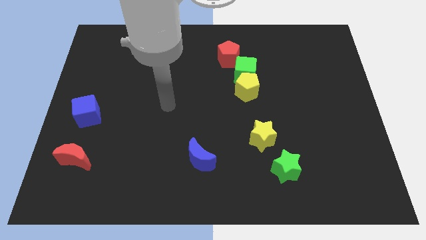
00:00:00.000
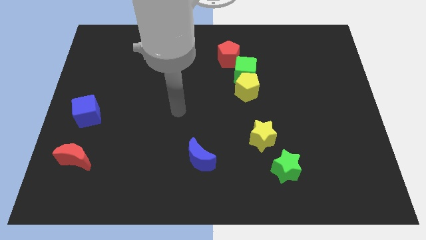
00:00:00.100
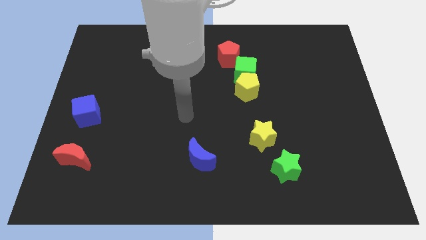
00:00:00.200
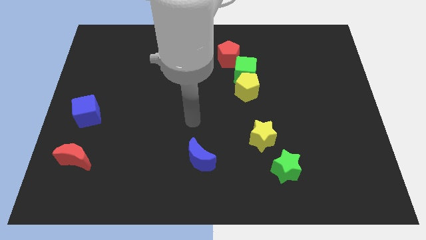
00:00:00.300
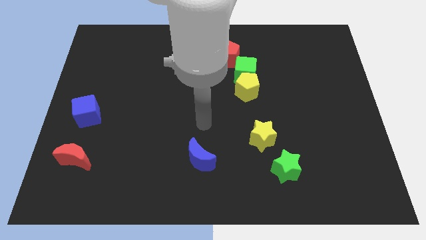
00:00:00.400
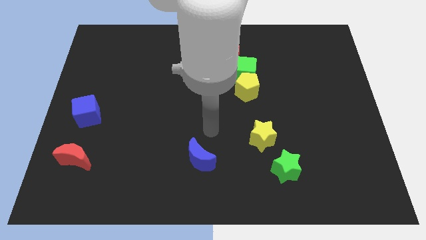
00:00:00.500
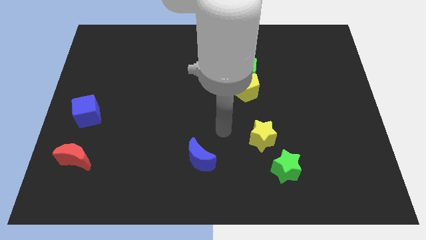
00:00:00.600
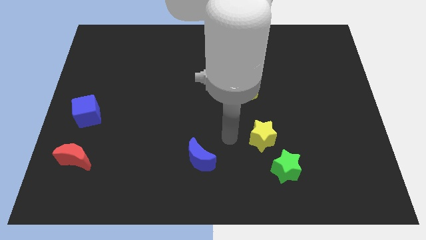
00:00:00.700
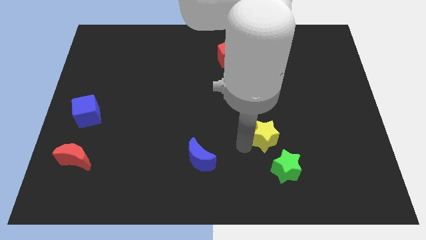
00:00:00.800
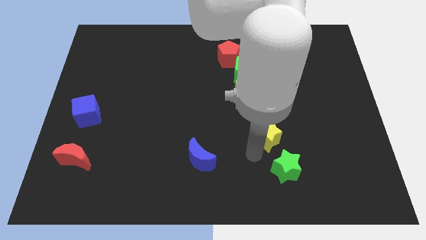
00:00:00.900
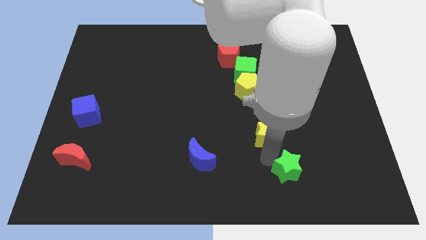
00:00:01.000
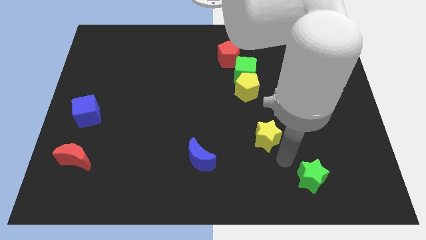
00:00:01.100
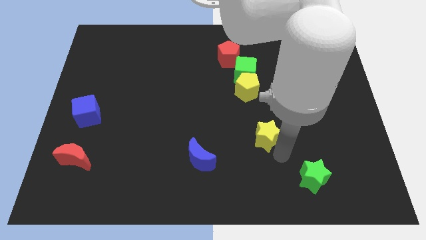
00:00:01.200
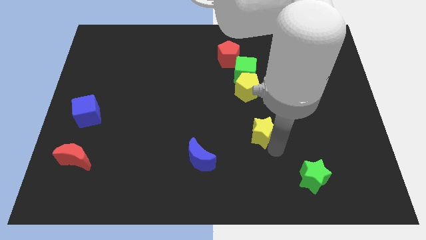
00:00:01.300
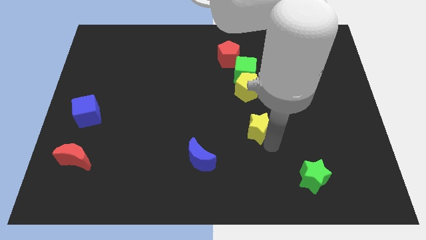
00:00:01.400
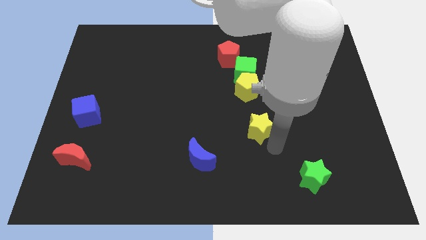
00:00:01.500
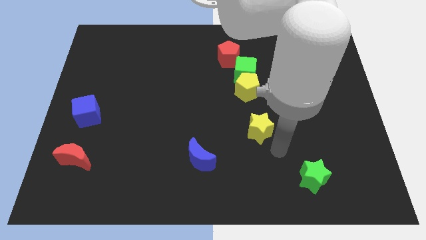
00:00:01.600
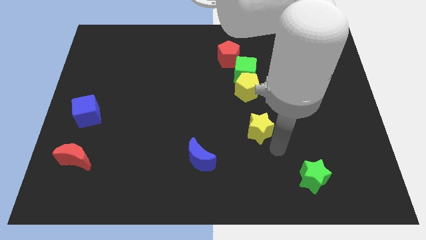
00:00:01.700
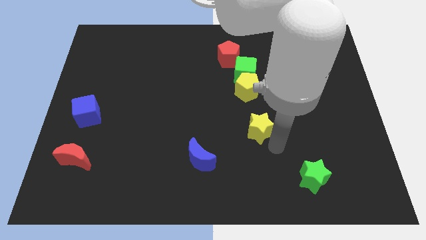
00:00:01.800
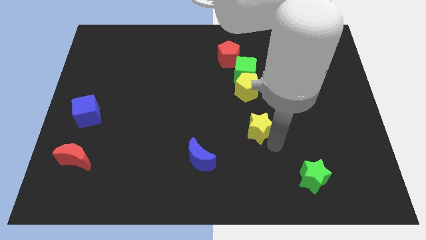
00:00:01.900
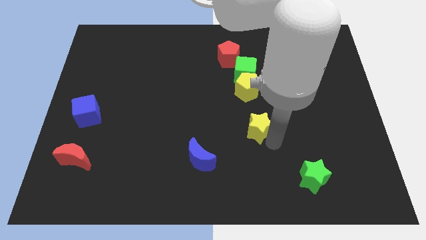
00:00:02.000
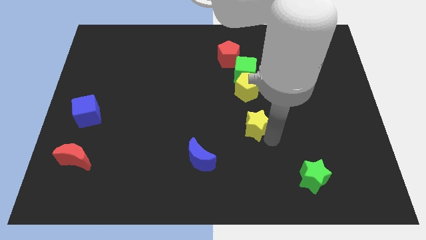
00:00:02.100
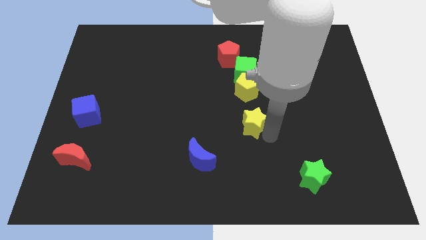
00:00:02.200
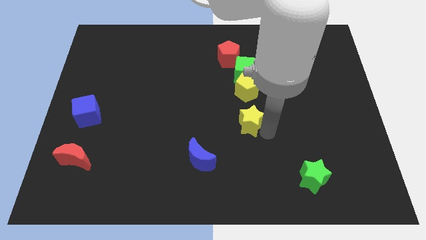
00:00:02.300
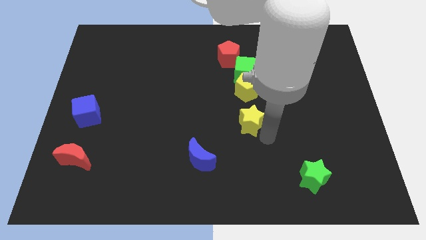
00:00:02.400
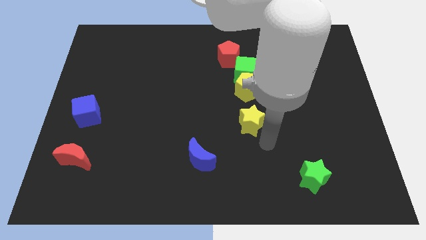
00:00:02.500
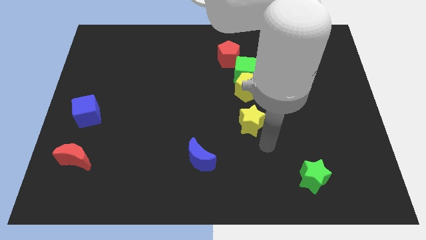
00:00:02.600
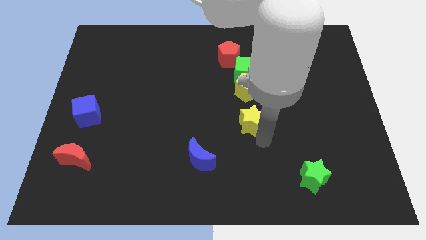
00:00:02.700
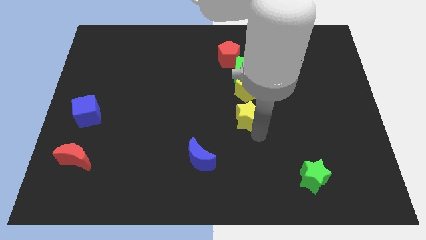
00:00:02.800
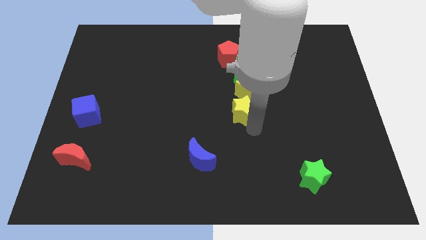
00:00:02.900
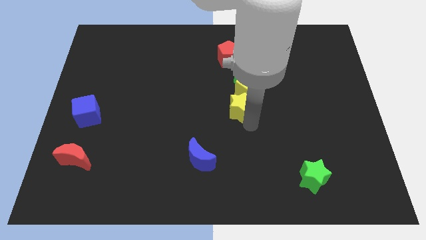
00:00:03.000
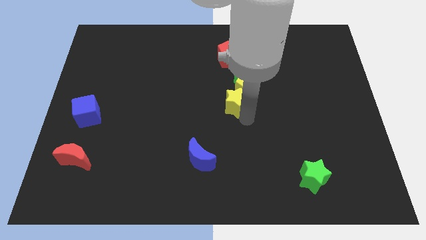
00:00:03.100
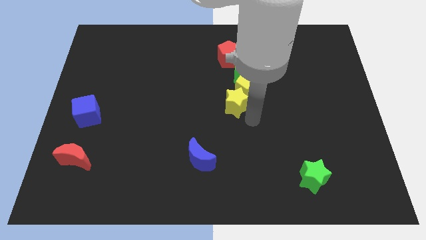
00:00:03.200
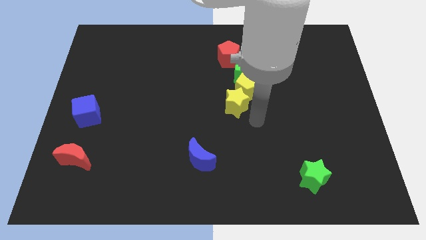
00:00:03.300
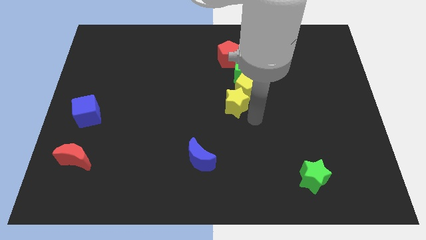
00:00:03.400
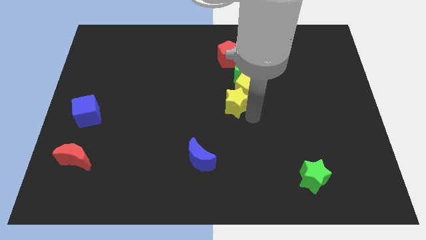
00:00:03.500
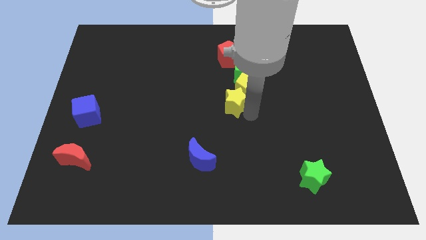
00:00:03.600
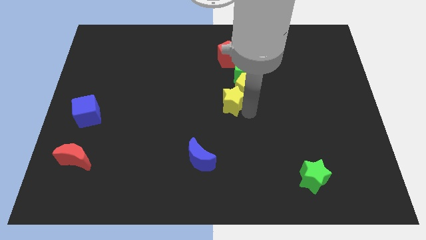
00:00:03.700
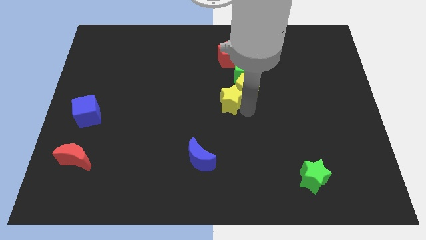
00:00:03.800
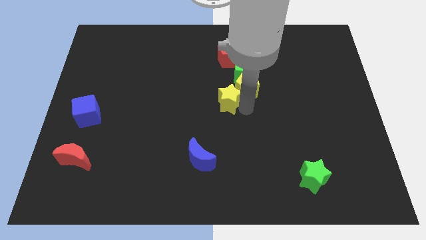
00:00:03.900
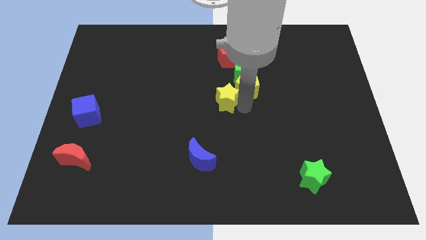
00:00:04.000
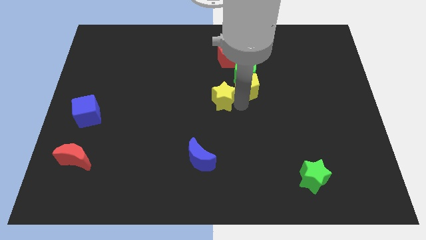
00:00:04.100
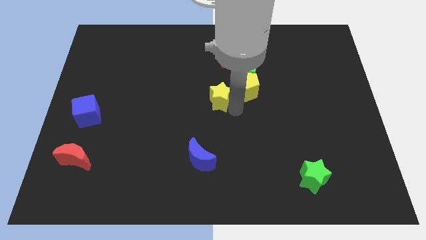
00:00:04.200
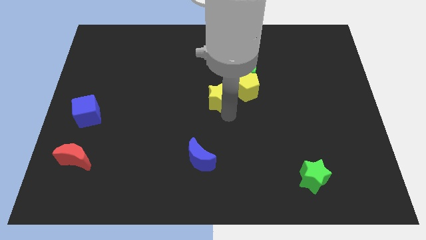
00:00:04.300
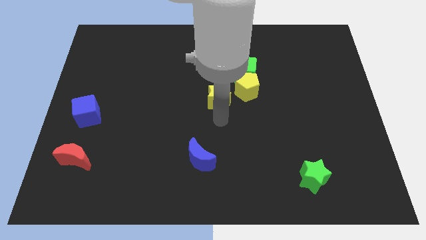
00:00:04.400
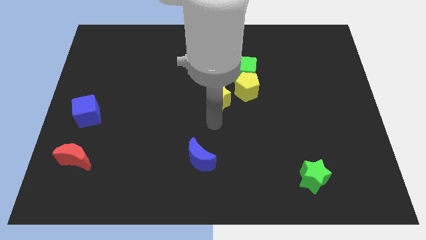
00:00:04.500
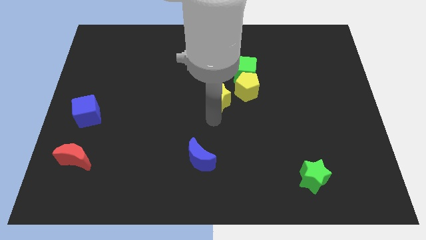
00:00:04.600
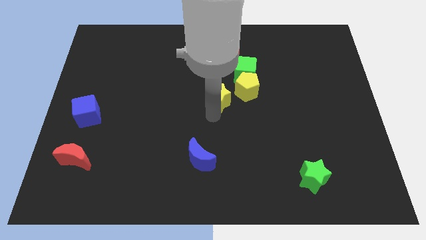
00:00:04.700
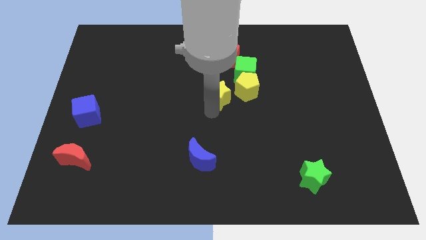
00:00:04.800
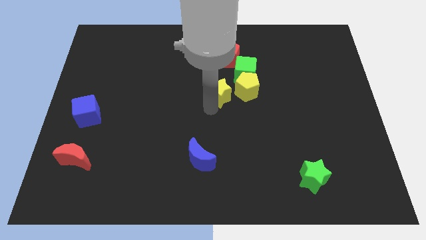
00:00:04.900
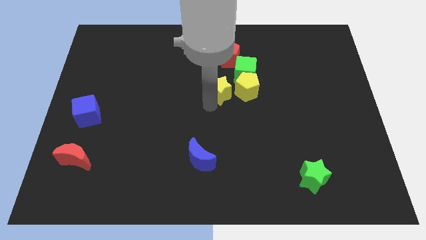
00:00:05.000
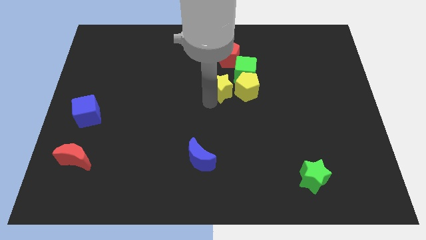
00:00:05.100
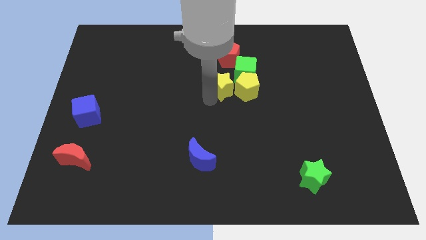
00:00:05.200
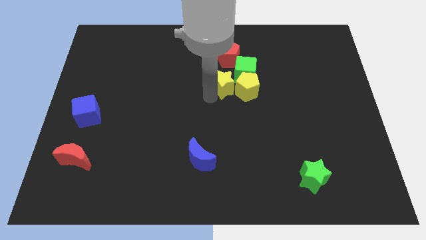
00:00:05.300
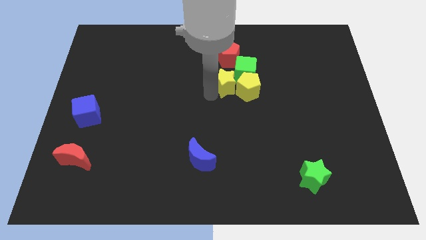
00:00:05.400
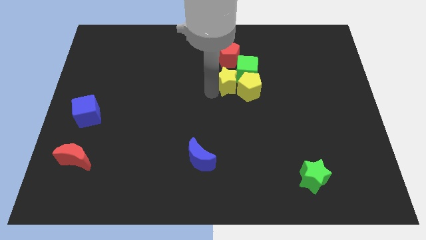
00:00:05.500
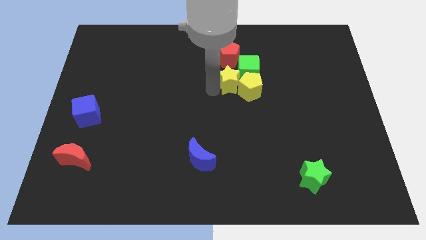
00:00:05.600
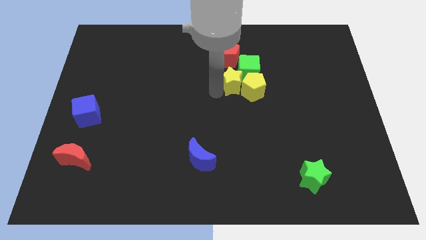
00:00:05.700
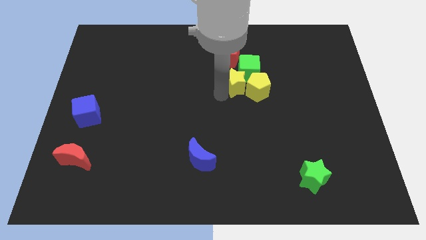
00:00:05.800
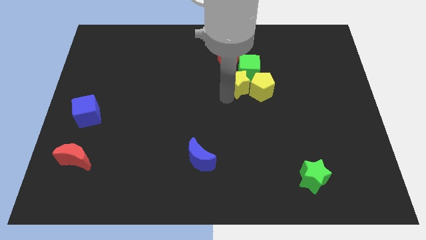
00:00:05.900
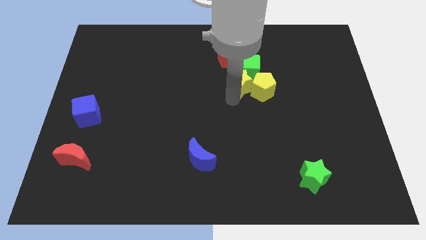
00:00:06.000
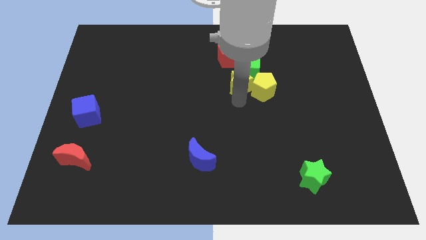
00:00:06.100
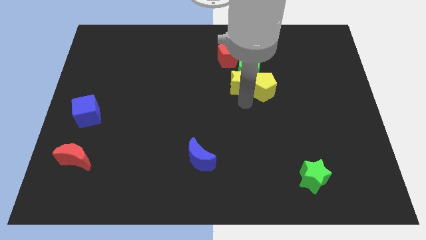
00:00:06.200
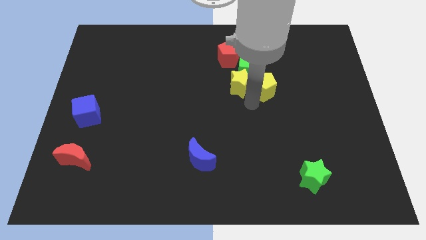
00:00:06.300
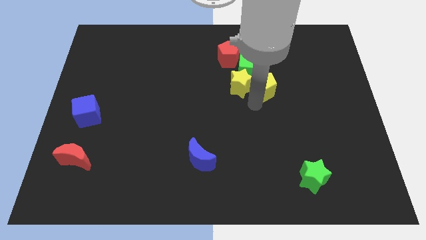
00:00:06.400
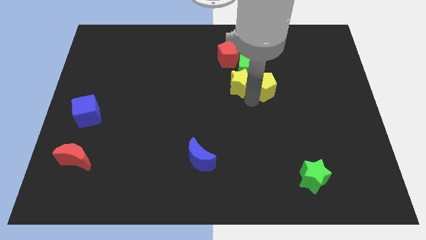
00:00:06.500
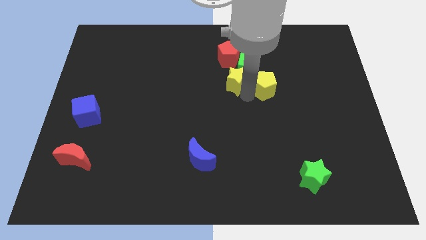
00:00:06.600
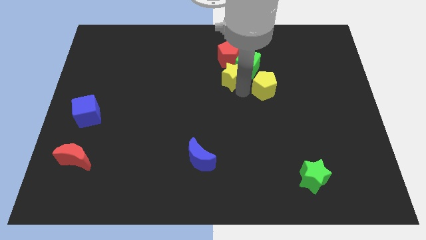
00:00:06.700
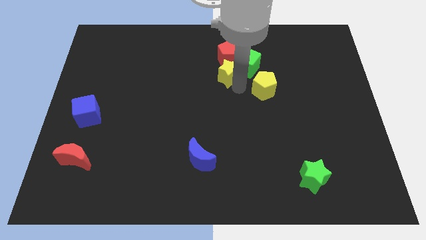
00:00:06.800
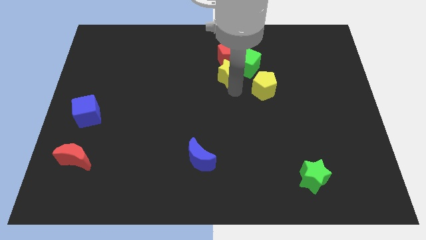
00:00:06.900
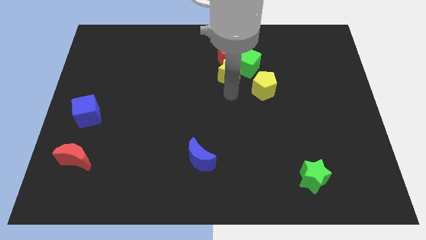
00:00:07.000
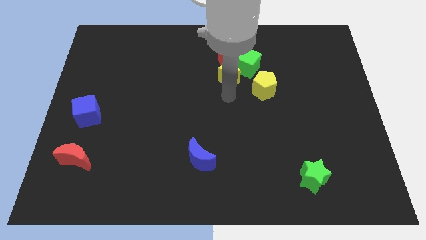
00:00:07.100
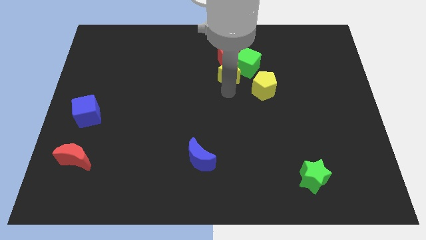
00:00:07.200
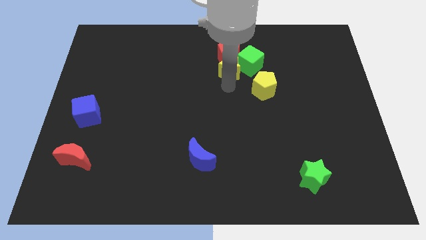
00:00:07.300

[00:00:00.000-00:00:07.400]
push the yellow star to the red pentagon
